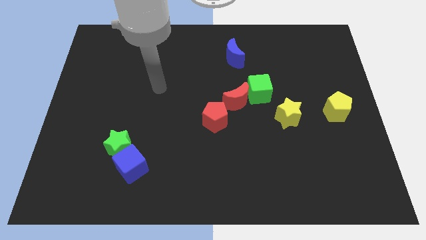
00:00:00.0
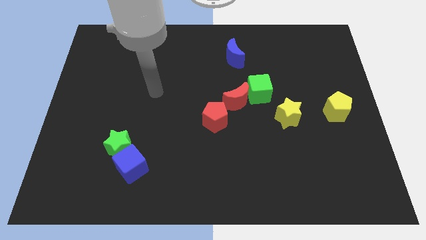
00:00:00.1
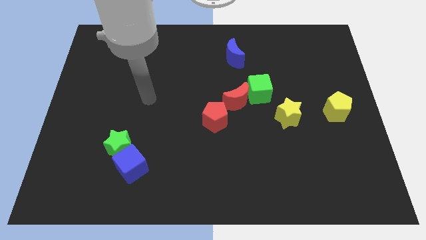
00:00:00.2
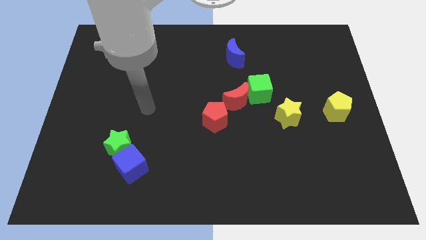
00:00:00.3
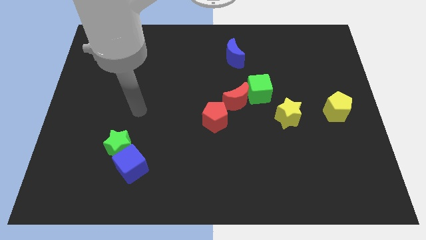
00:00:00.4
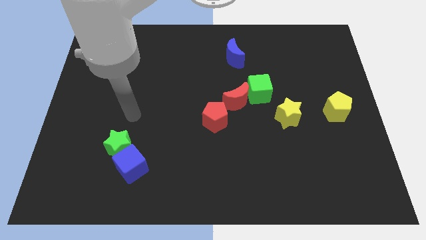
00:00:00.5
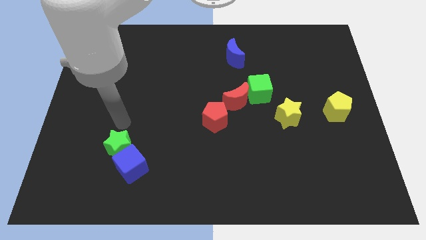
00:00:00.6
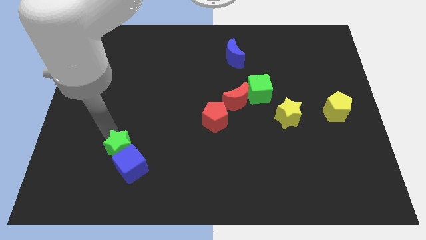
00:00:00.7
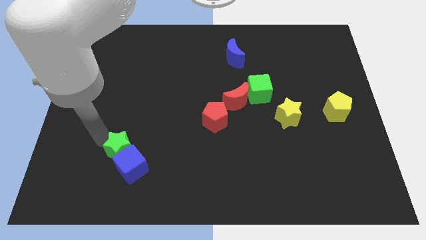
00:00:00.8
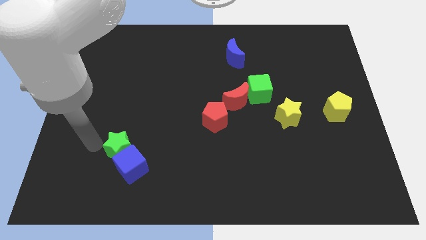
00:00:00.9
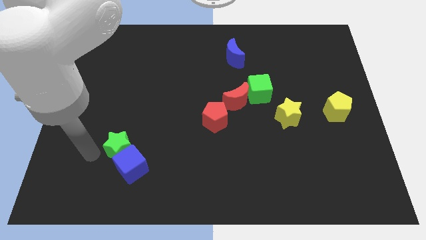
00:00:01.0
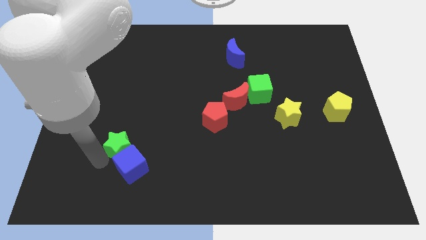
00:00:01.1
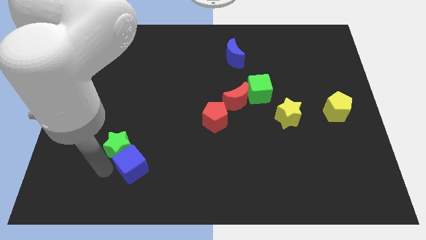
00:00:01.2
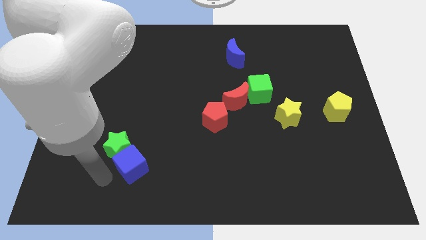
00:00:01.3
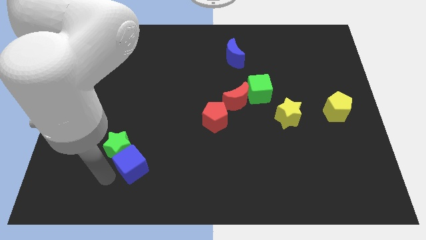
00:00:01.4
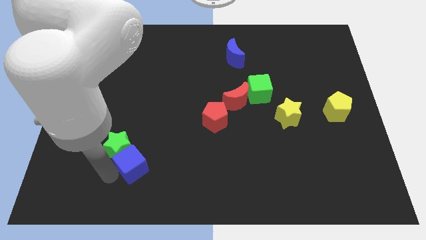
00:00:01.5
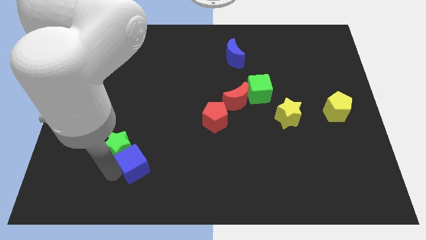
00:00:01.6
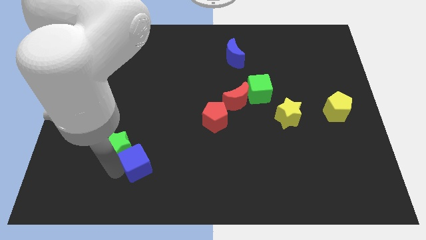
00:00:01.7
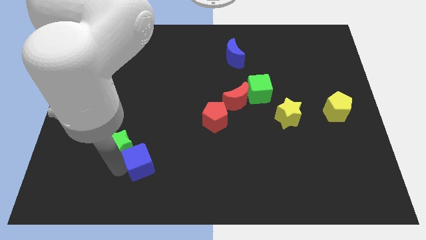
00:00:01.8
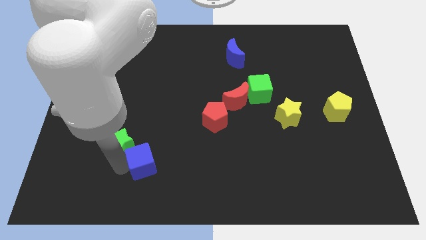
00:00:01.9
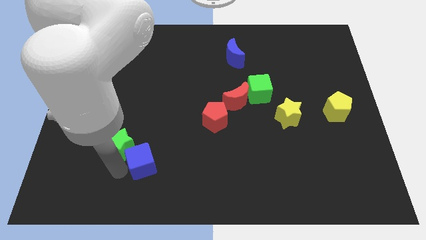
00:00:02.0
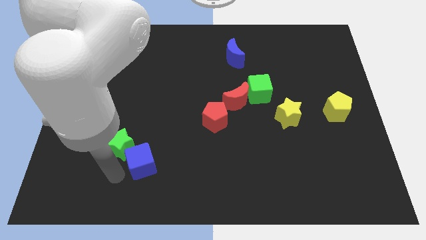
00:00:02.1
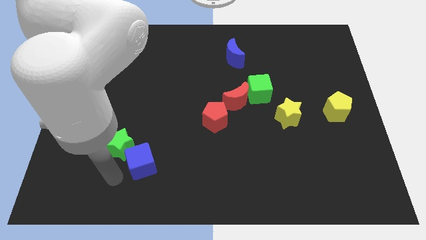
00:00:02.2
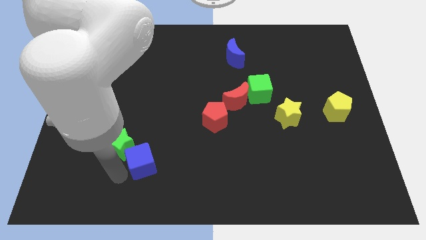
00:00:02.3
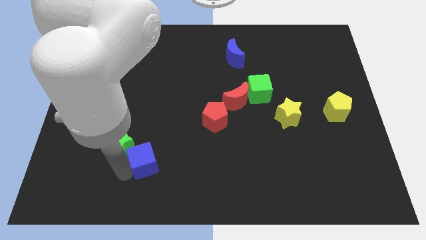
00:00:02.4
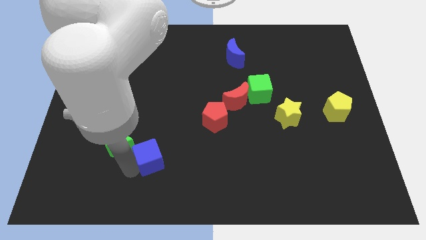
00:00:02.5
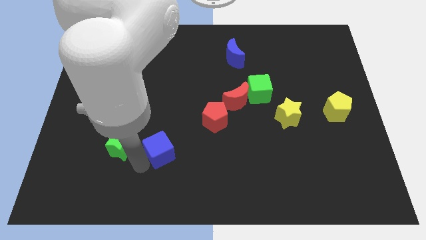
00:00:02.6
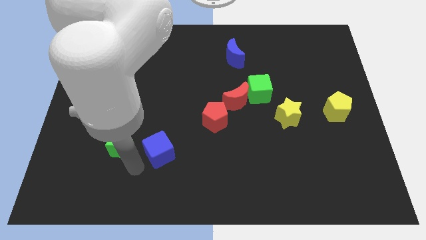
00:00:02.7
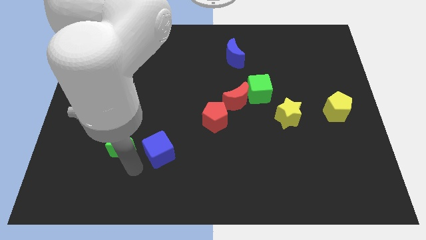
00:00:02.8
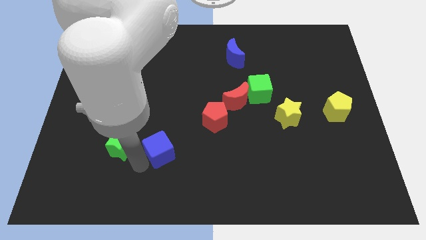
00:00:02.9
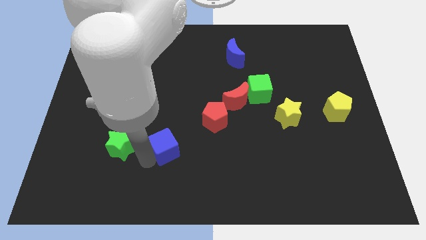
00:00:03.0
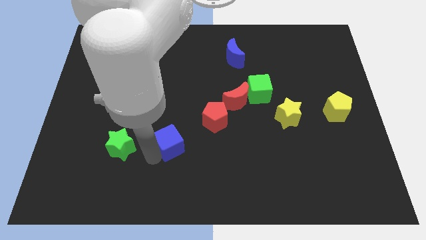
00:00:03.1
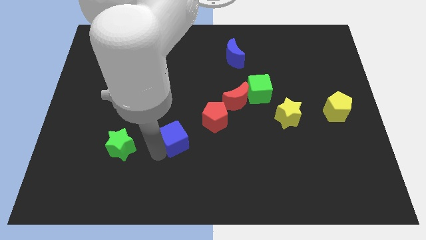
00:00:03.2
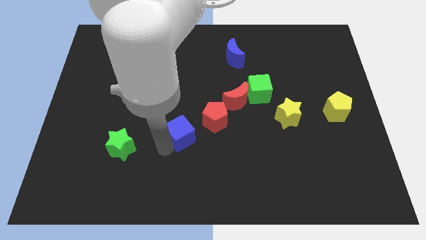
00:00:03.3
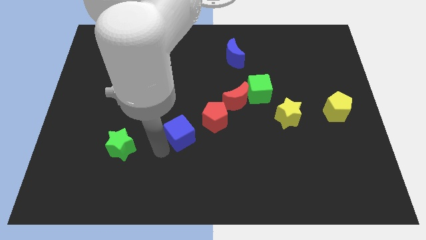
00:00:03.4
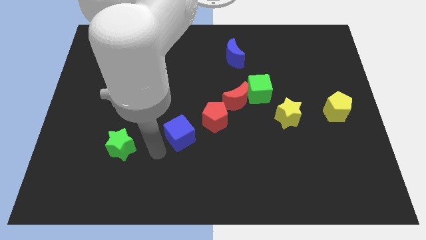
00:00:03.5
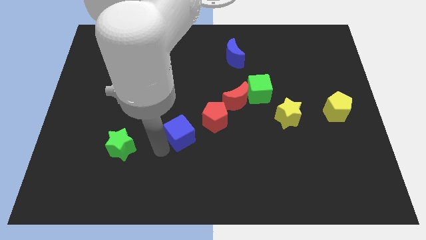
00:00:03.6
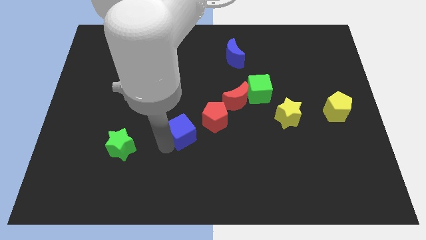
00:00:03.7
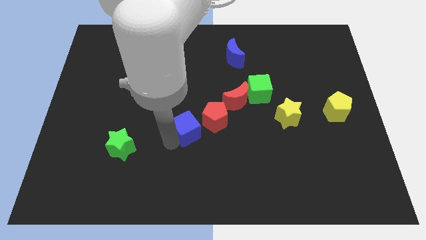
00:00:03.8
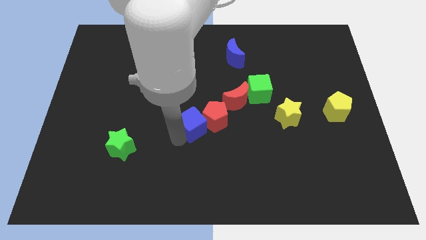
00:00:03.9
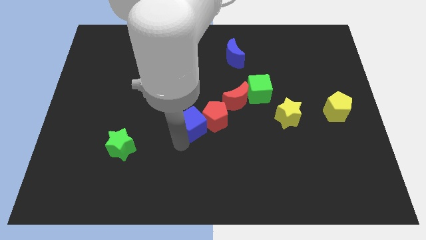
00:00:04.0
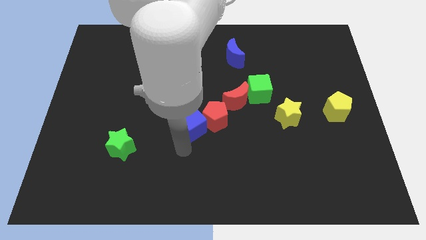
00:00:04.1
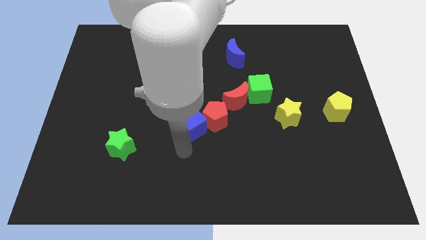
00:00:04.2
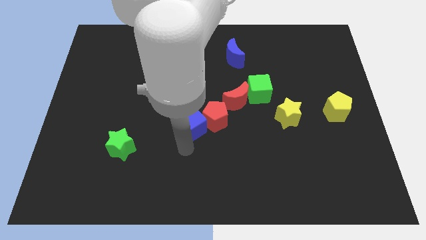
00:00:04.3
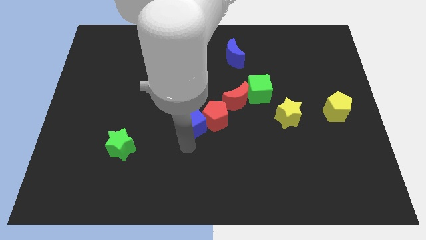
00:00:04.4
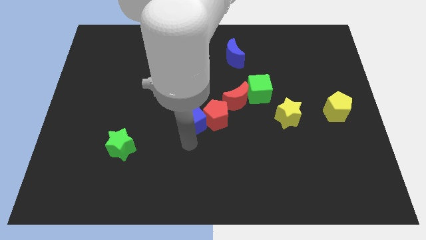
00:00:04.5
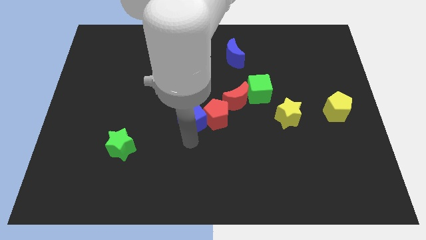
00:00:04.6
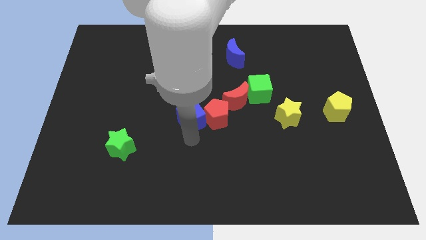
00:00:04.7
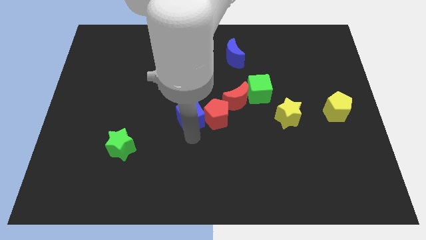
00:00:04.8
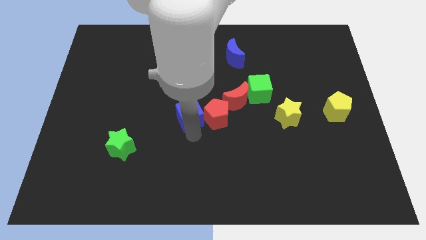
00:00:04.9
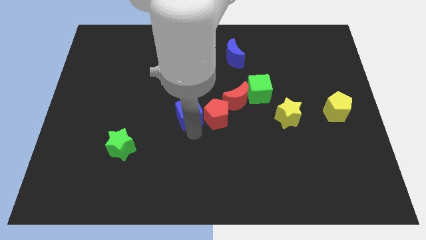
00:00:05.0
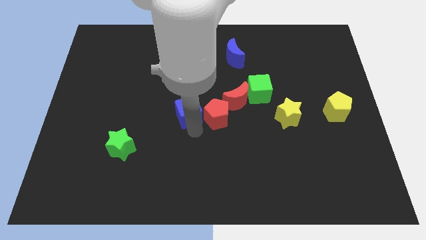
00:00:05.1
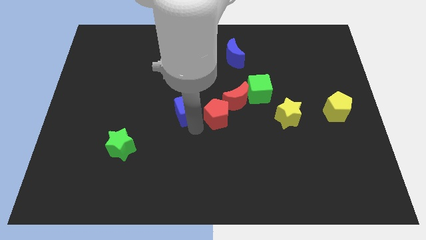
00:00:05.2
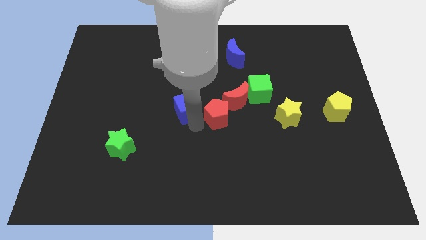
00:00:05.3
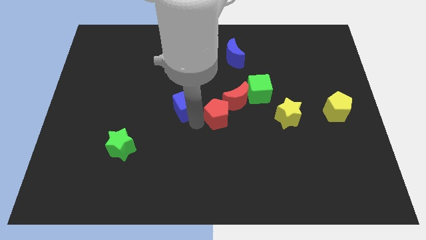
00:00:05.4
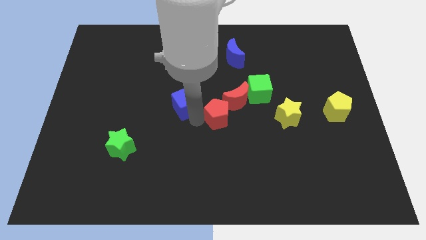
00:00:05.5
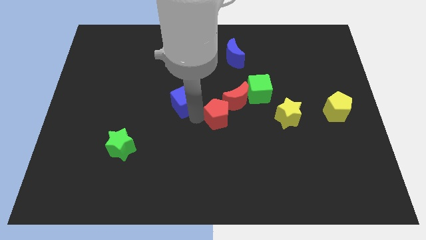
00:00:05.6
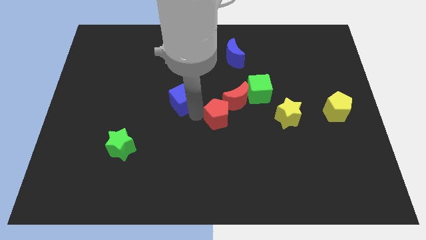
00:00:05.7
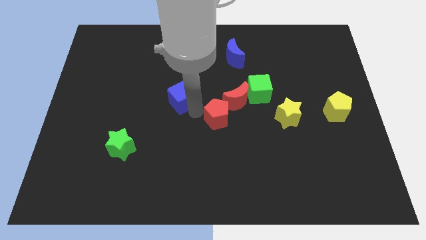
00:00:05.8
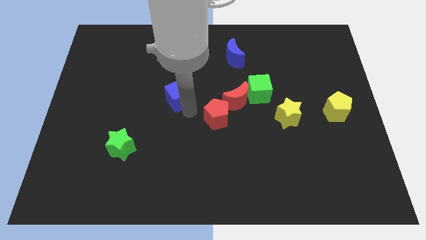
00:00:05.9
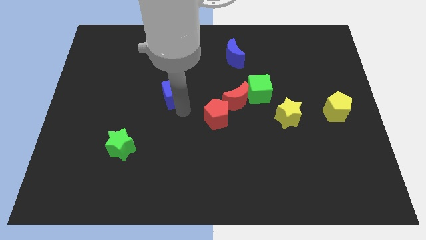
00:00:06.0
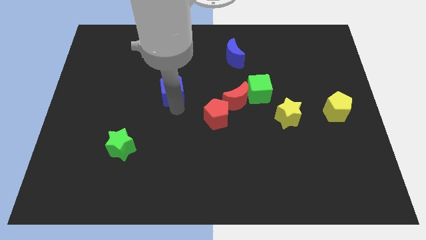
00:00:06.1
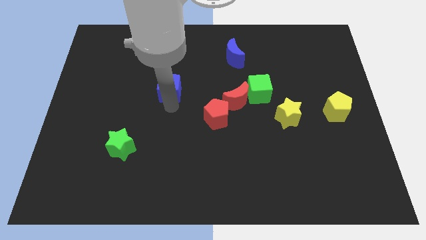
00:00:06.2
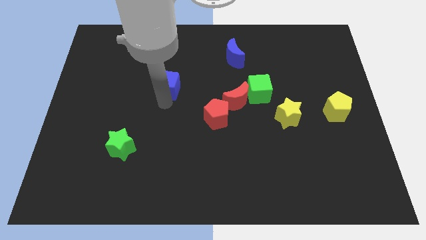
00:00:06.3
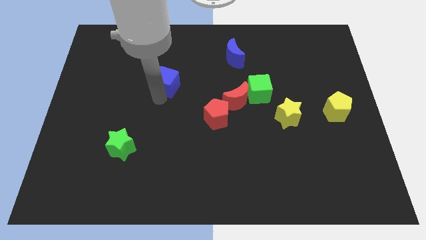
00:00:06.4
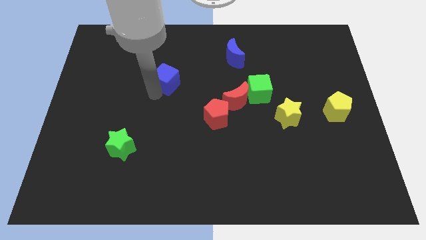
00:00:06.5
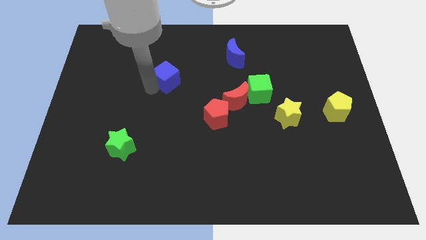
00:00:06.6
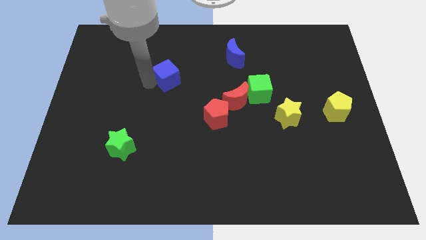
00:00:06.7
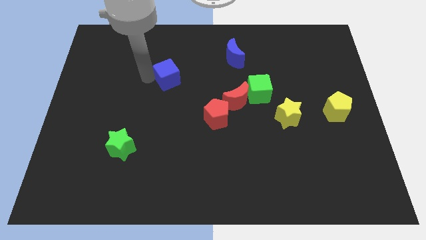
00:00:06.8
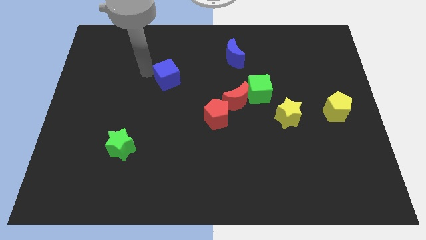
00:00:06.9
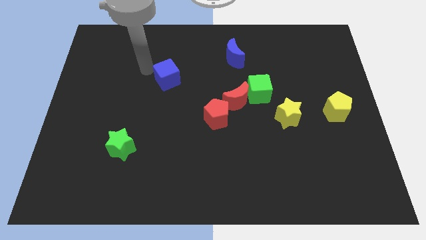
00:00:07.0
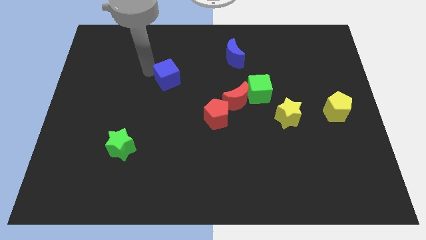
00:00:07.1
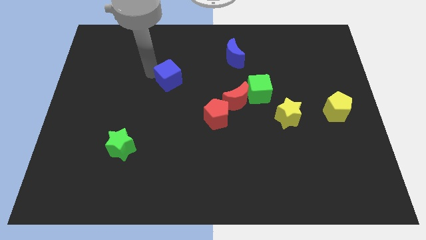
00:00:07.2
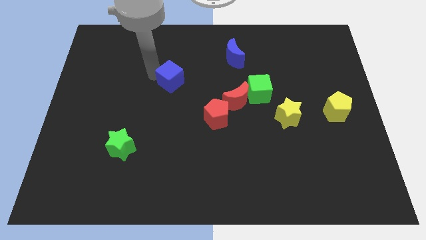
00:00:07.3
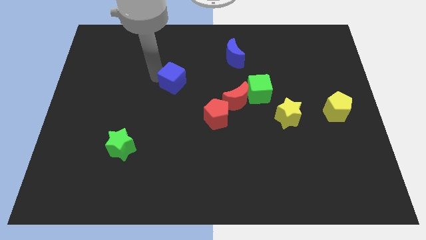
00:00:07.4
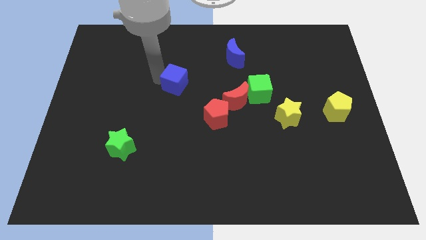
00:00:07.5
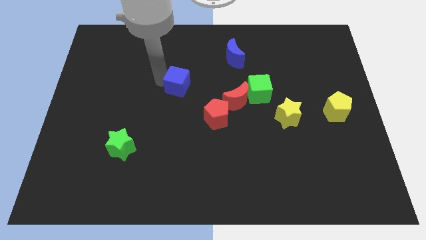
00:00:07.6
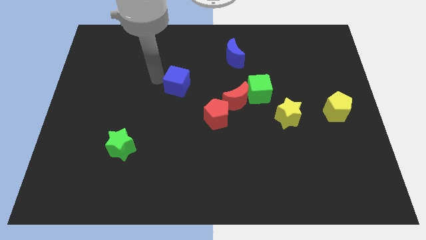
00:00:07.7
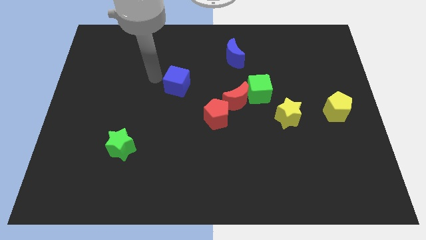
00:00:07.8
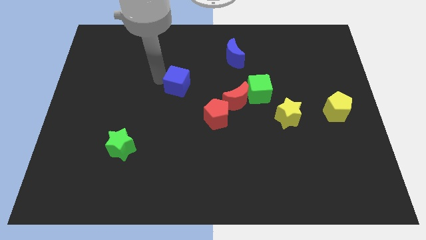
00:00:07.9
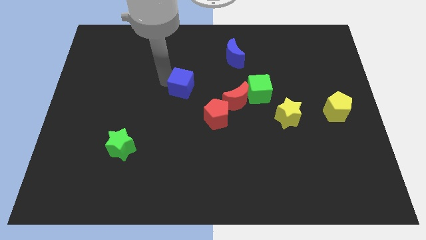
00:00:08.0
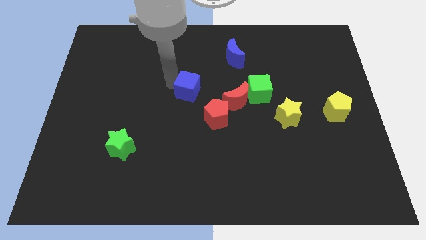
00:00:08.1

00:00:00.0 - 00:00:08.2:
move the blue cube upwards and then right
